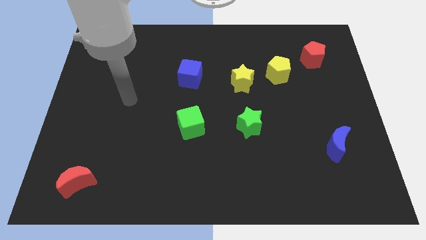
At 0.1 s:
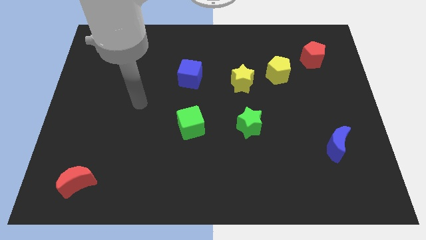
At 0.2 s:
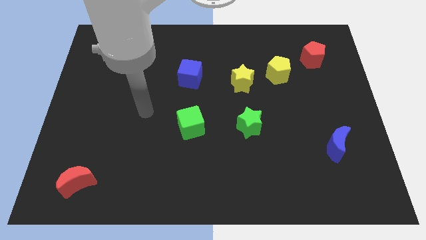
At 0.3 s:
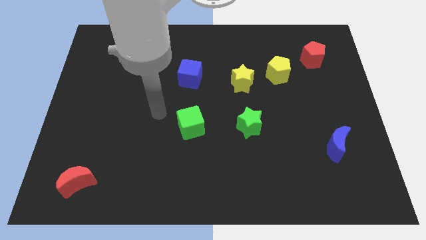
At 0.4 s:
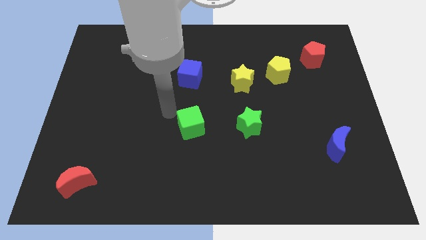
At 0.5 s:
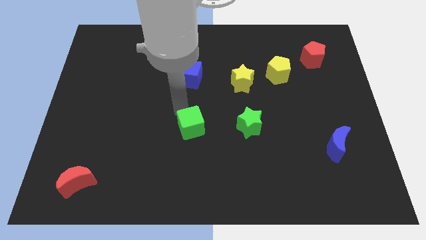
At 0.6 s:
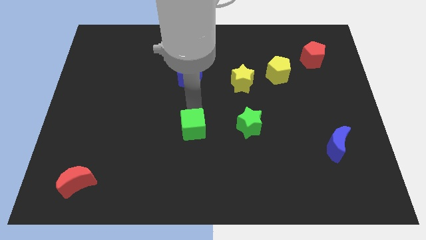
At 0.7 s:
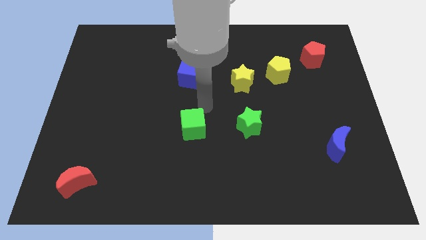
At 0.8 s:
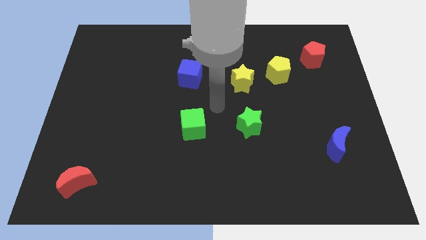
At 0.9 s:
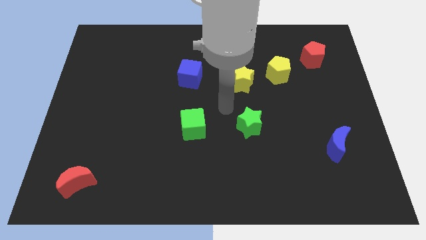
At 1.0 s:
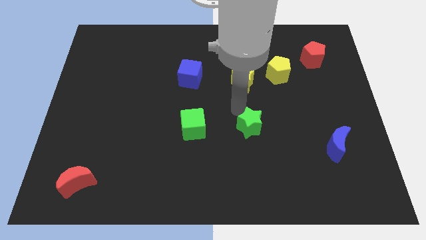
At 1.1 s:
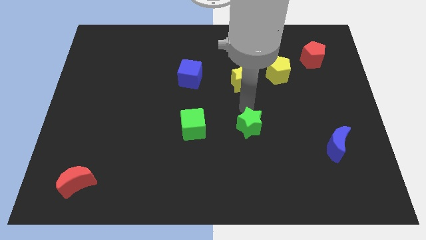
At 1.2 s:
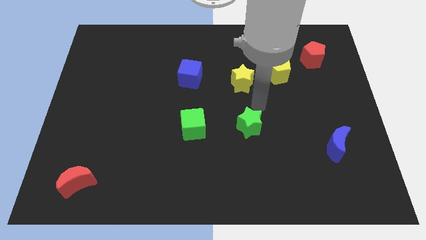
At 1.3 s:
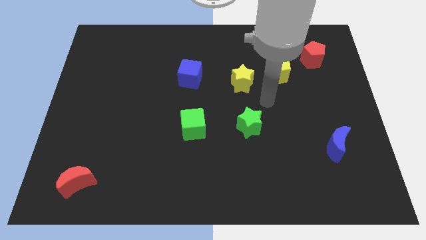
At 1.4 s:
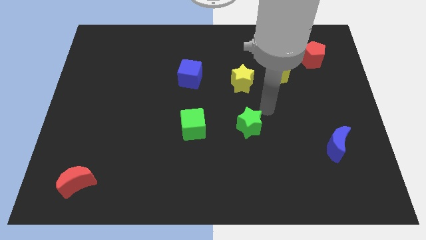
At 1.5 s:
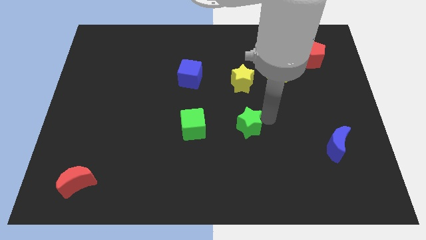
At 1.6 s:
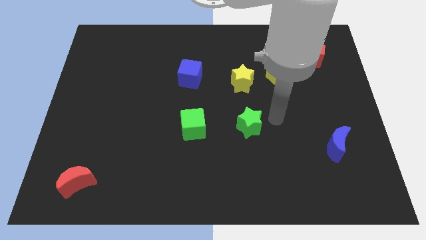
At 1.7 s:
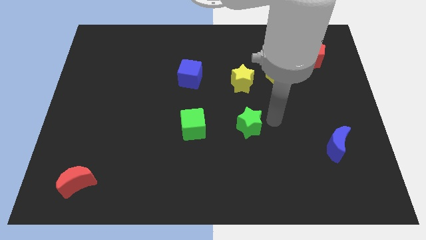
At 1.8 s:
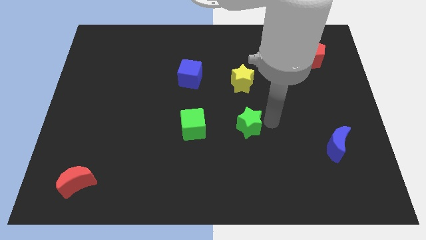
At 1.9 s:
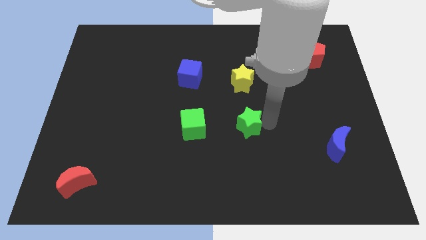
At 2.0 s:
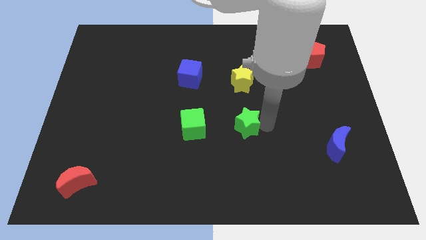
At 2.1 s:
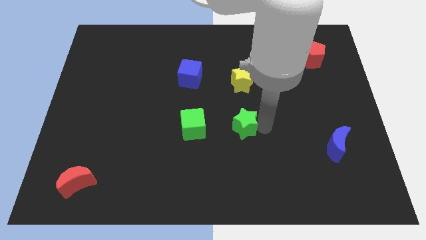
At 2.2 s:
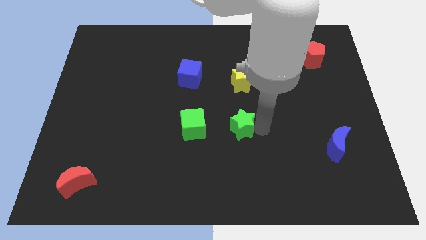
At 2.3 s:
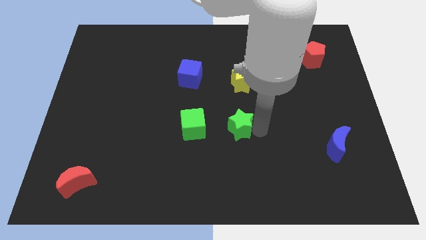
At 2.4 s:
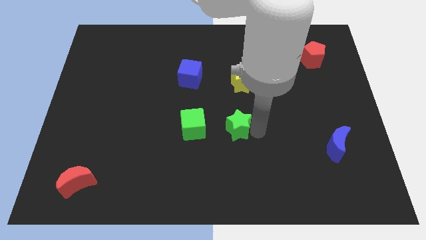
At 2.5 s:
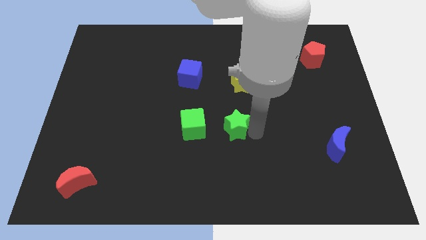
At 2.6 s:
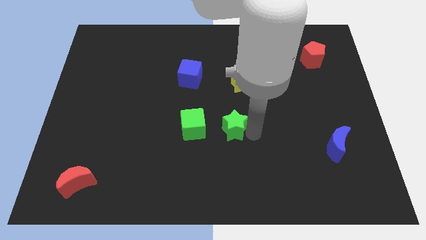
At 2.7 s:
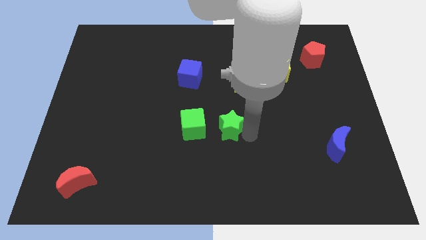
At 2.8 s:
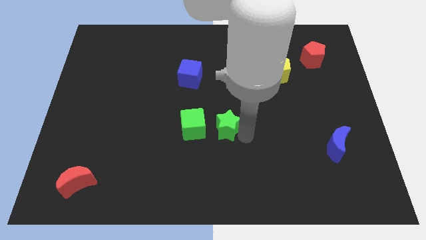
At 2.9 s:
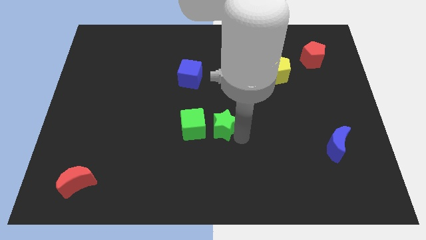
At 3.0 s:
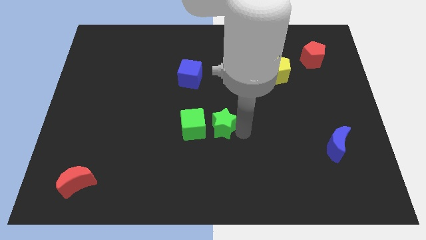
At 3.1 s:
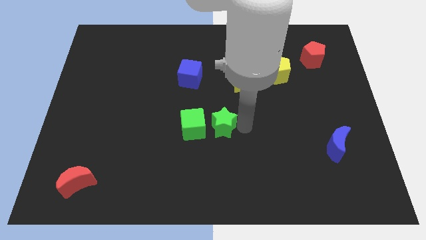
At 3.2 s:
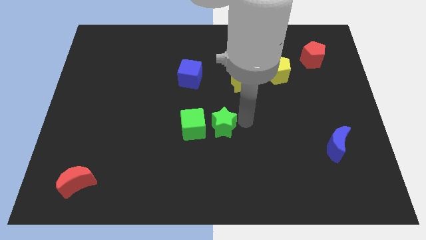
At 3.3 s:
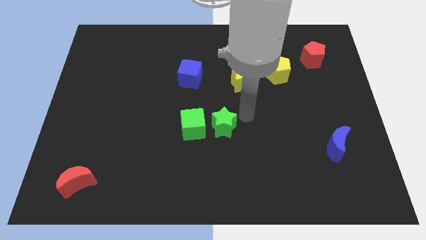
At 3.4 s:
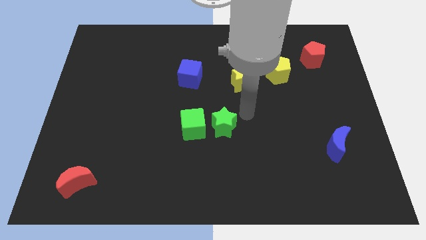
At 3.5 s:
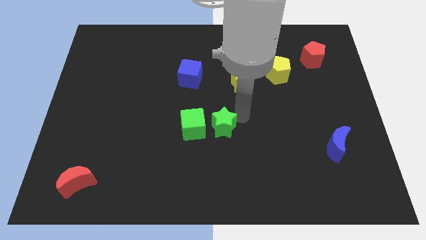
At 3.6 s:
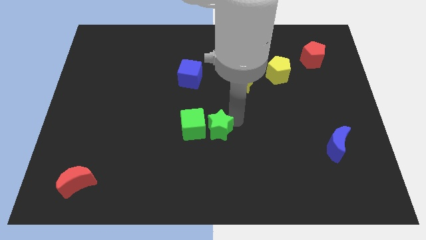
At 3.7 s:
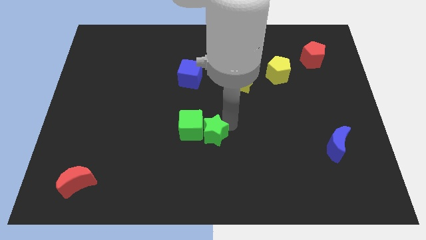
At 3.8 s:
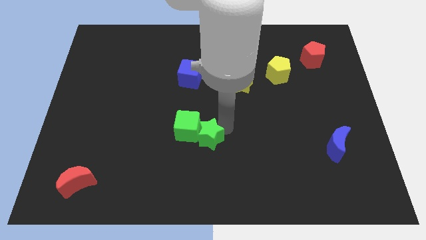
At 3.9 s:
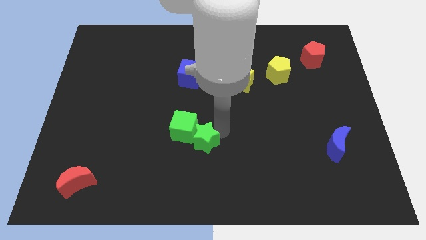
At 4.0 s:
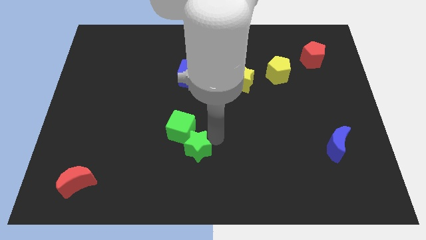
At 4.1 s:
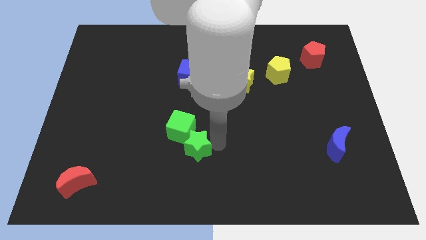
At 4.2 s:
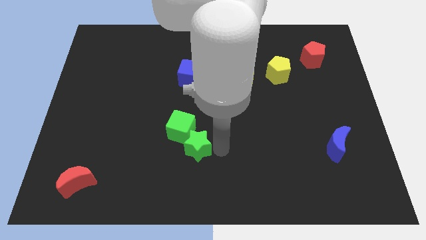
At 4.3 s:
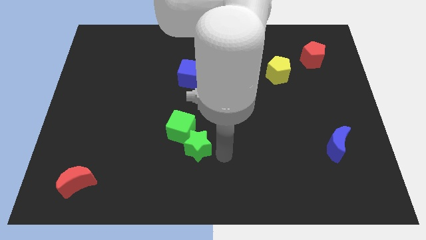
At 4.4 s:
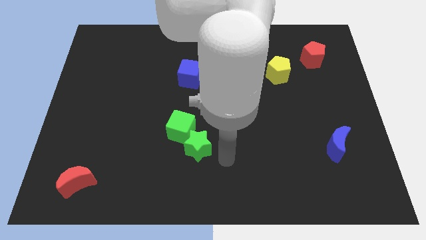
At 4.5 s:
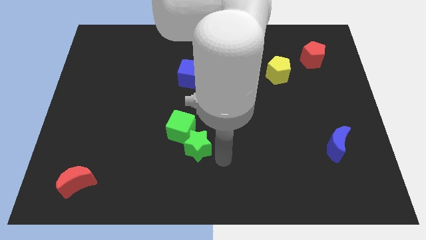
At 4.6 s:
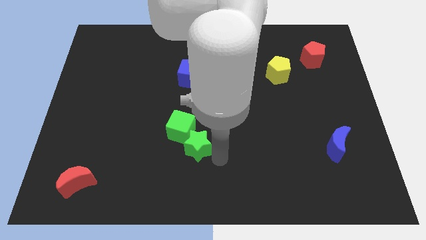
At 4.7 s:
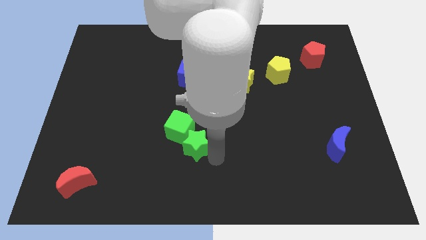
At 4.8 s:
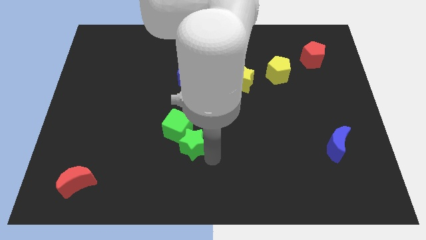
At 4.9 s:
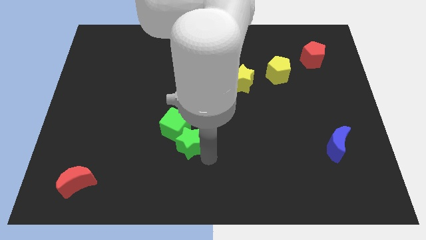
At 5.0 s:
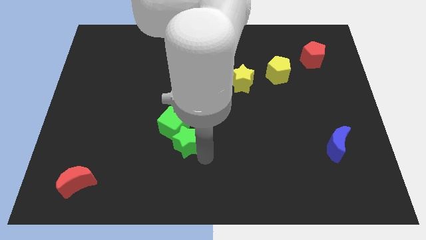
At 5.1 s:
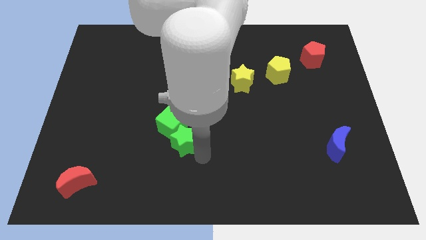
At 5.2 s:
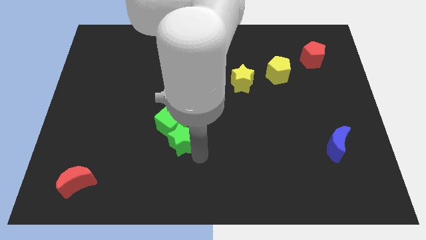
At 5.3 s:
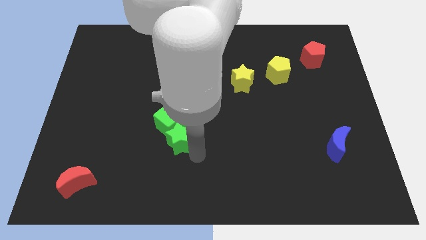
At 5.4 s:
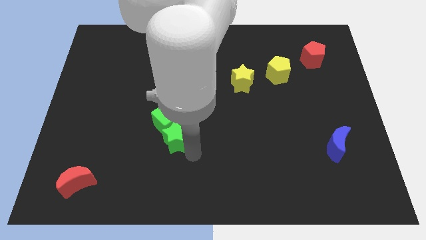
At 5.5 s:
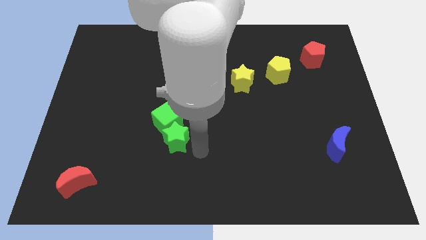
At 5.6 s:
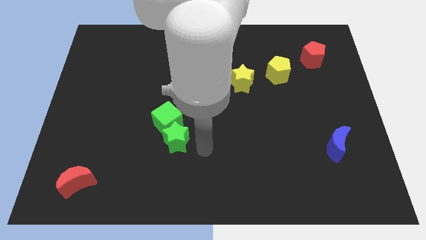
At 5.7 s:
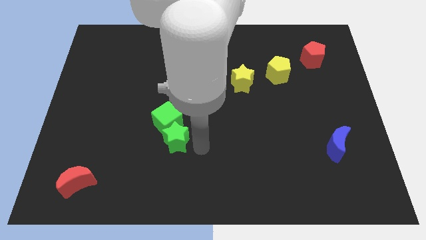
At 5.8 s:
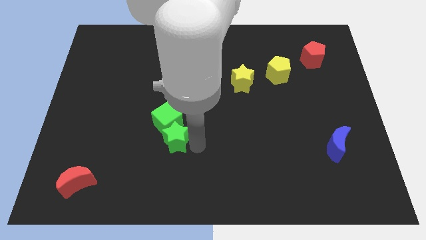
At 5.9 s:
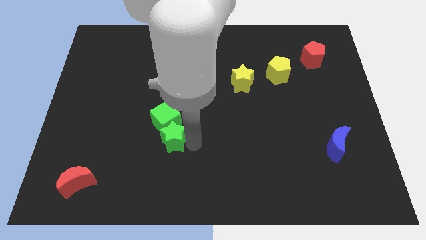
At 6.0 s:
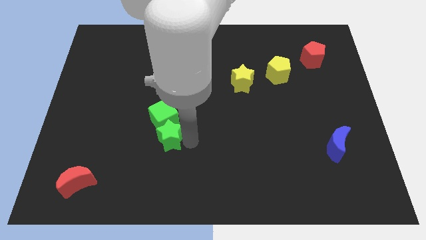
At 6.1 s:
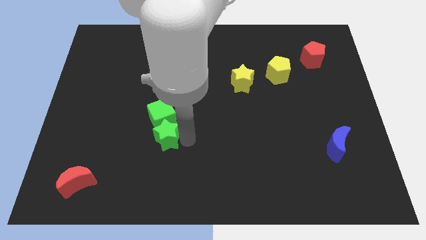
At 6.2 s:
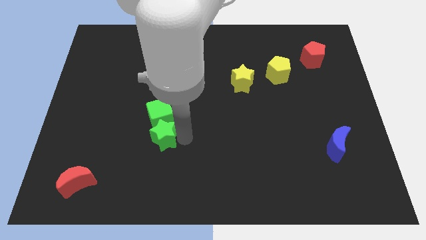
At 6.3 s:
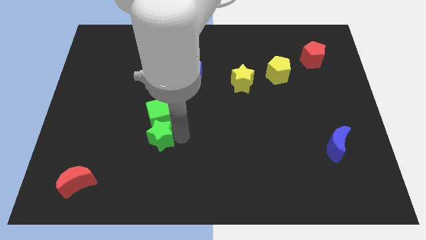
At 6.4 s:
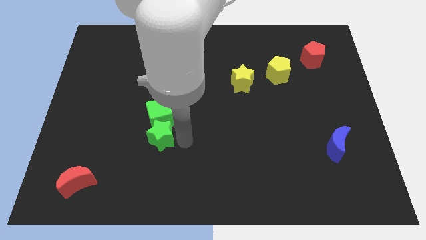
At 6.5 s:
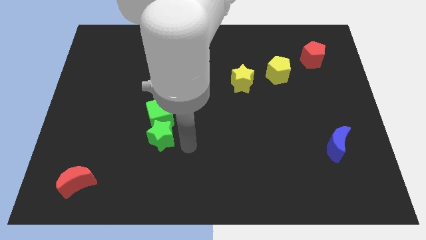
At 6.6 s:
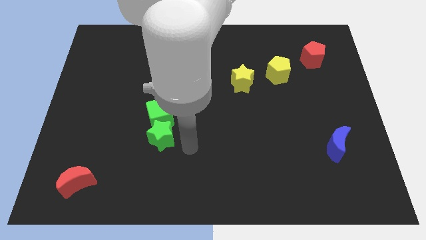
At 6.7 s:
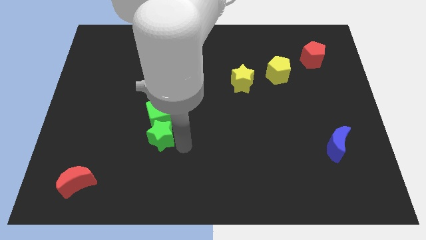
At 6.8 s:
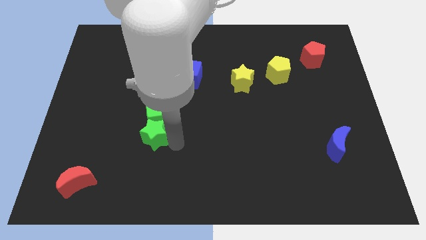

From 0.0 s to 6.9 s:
push the green star left

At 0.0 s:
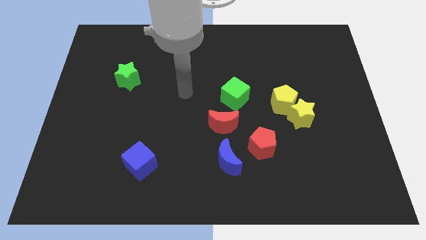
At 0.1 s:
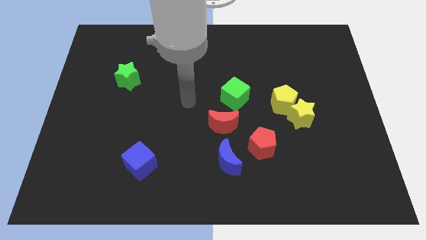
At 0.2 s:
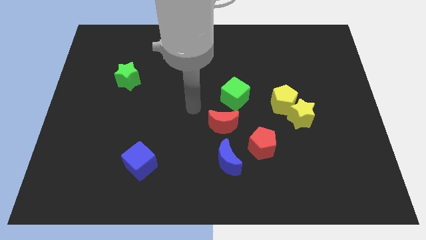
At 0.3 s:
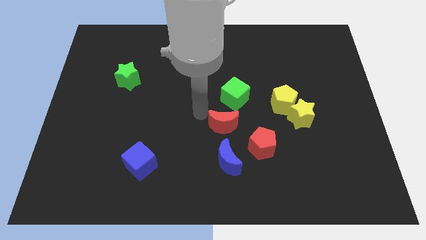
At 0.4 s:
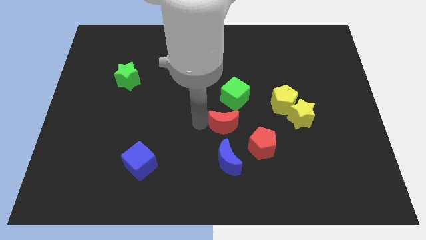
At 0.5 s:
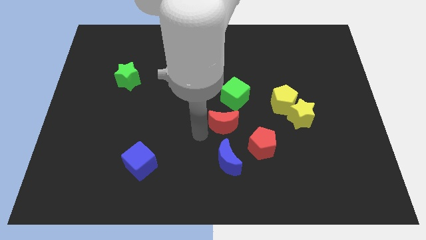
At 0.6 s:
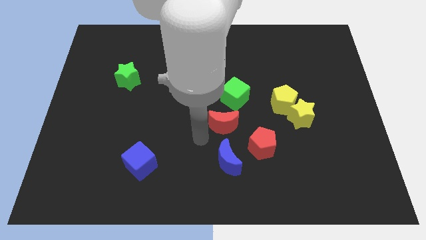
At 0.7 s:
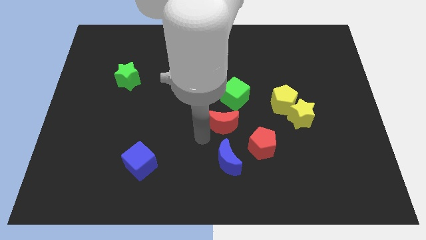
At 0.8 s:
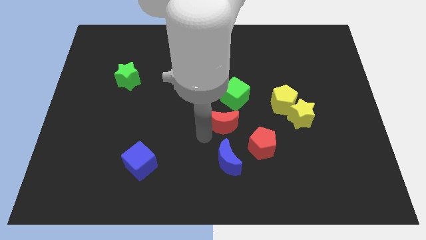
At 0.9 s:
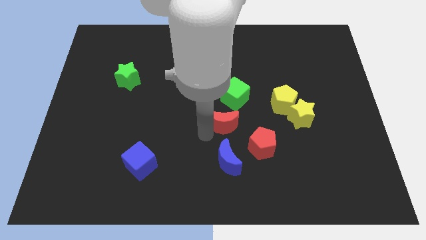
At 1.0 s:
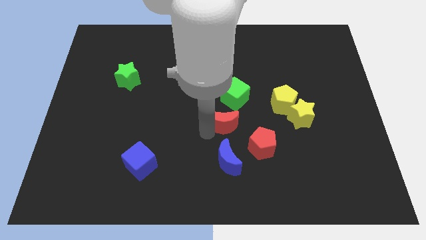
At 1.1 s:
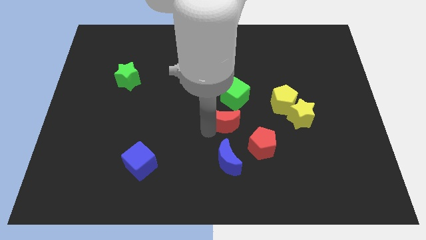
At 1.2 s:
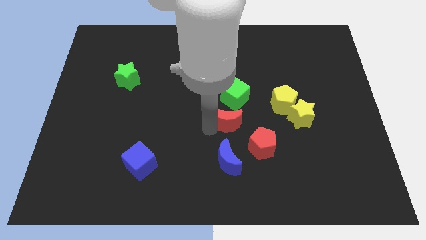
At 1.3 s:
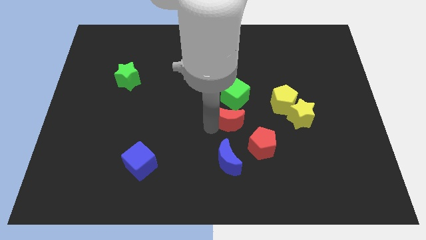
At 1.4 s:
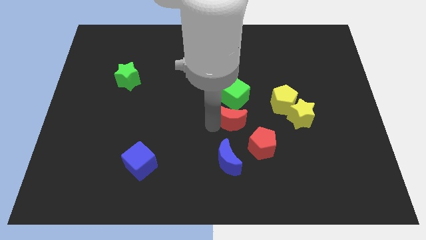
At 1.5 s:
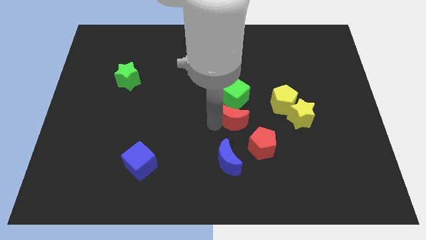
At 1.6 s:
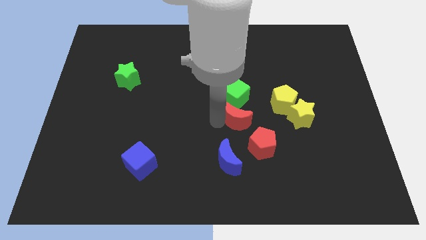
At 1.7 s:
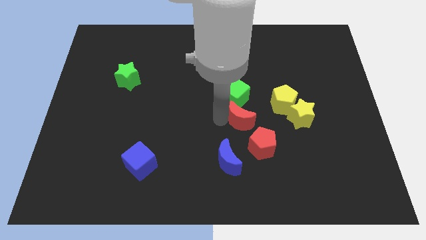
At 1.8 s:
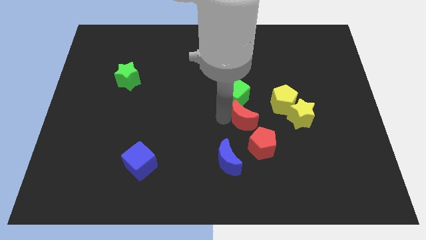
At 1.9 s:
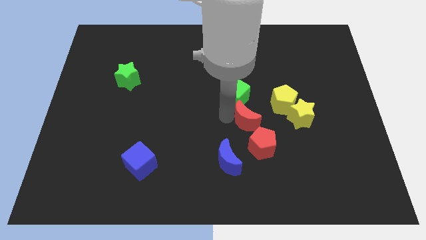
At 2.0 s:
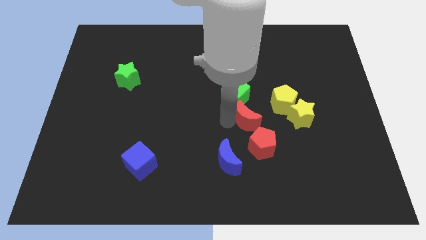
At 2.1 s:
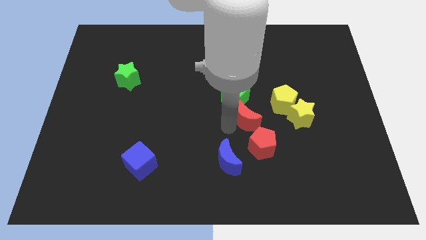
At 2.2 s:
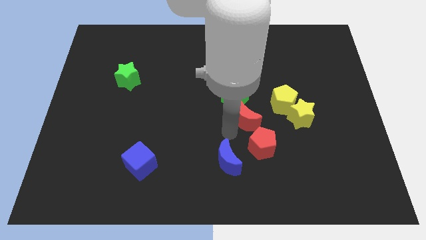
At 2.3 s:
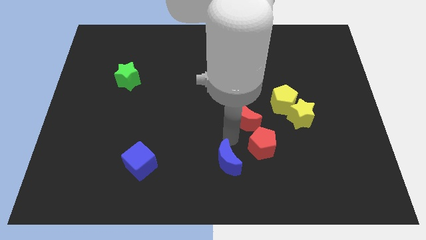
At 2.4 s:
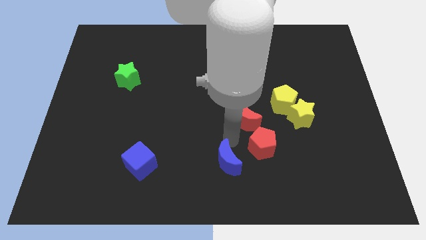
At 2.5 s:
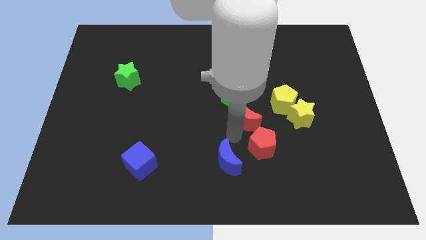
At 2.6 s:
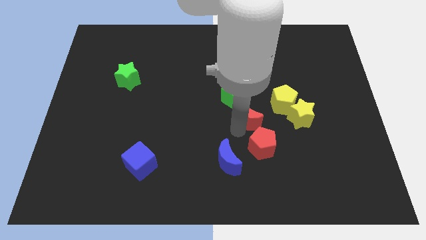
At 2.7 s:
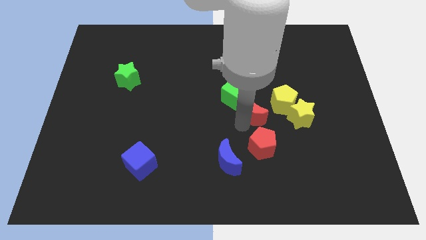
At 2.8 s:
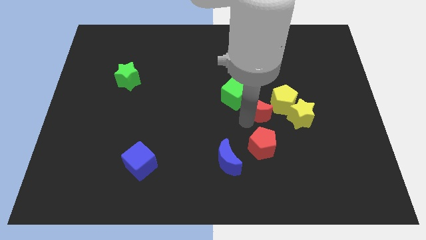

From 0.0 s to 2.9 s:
push the red moon a bit upwards and to the right diagonally
